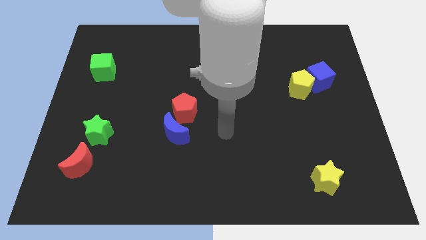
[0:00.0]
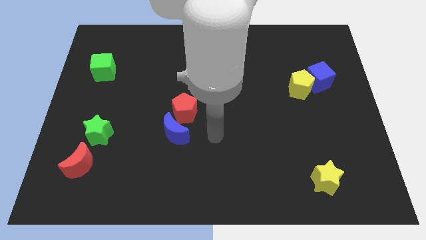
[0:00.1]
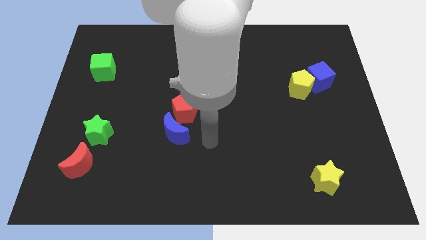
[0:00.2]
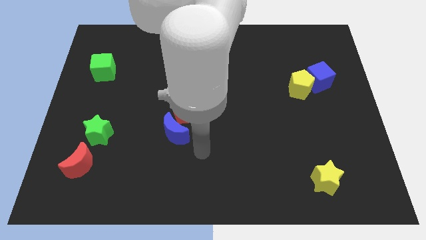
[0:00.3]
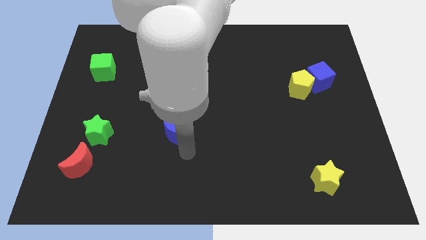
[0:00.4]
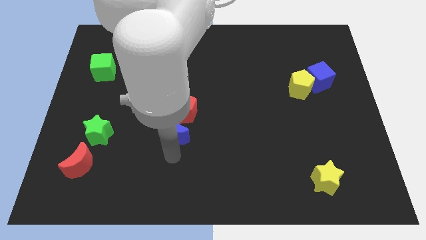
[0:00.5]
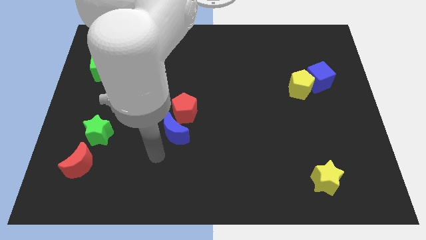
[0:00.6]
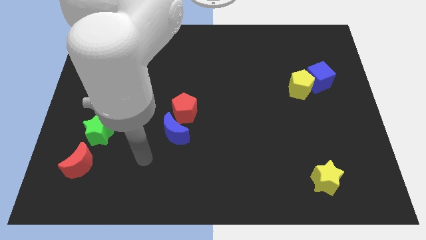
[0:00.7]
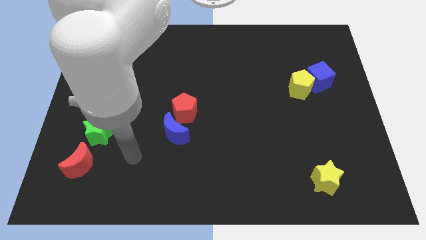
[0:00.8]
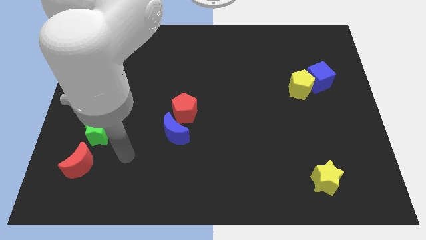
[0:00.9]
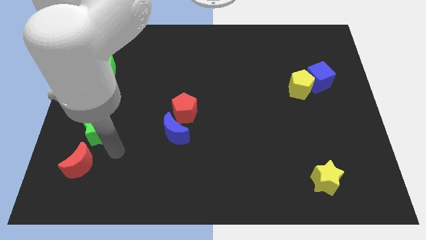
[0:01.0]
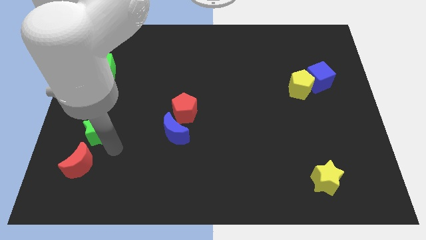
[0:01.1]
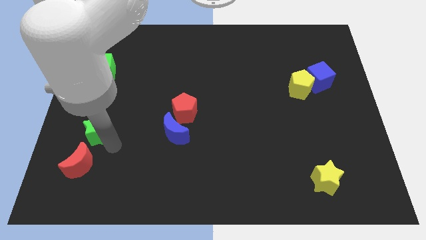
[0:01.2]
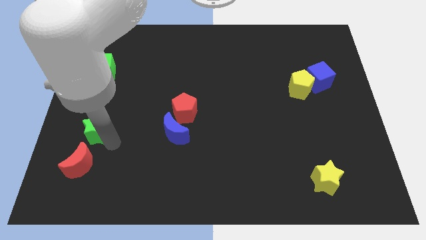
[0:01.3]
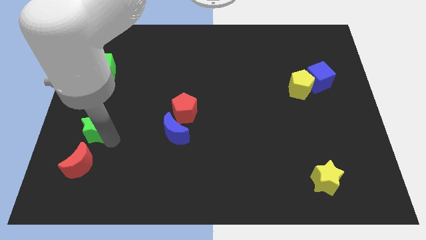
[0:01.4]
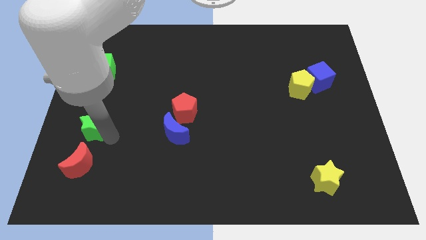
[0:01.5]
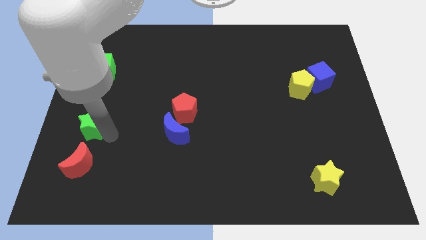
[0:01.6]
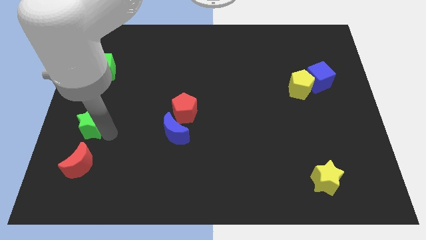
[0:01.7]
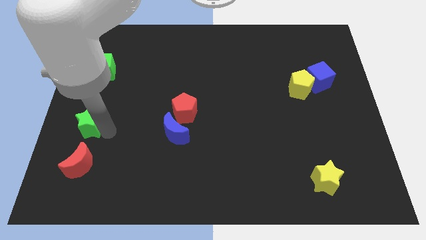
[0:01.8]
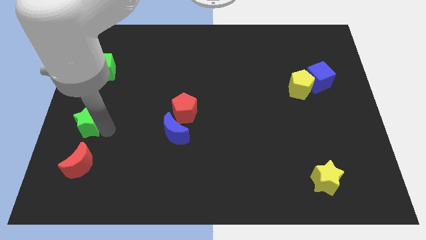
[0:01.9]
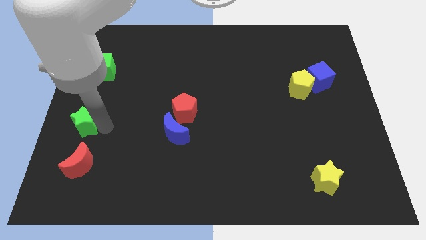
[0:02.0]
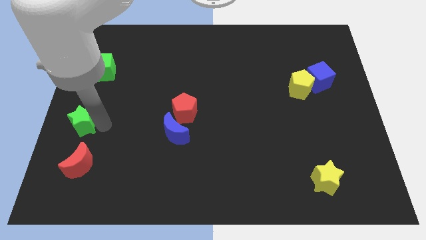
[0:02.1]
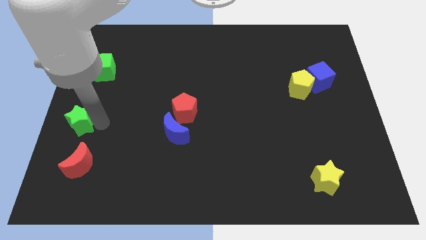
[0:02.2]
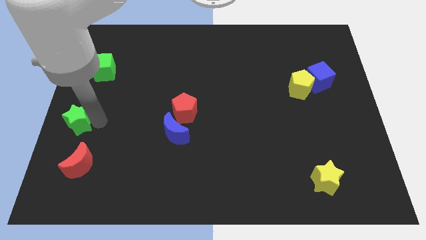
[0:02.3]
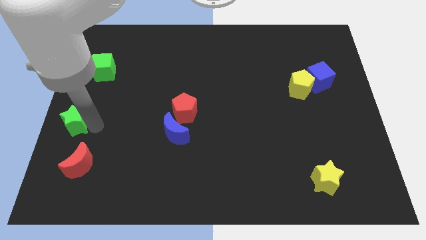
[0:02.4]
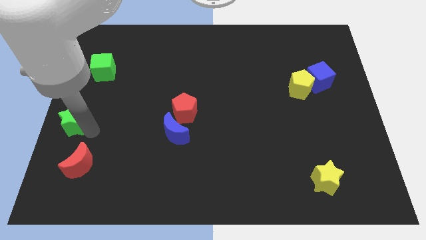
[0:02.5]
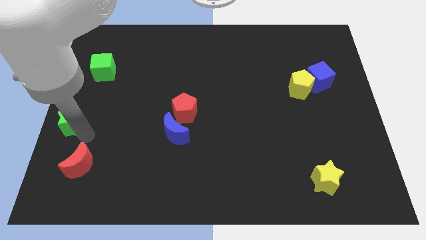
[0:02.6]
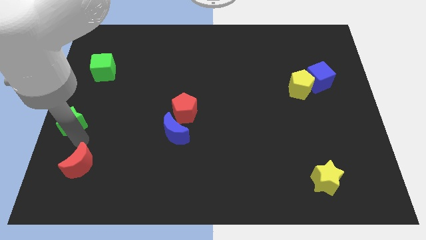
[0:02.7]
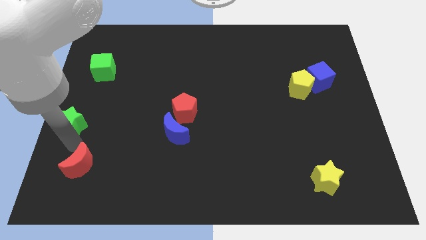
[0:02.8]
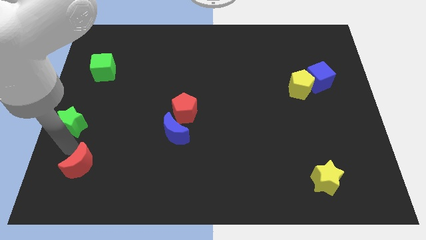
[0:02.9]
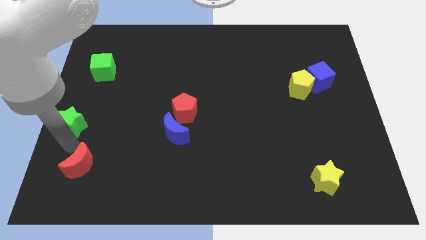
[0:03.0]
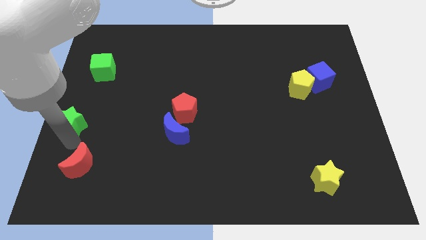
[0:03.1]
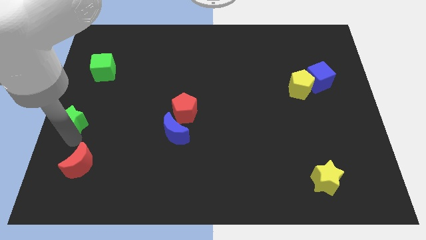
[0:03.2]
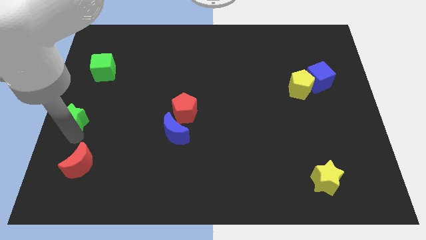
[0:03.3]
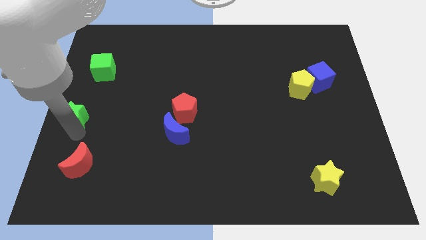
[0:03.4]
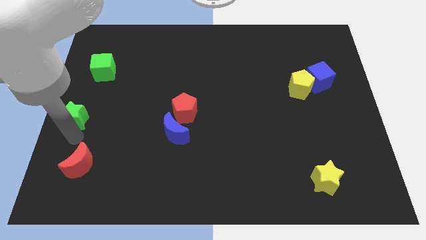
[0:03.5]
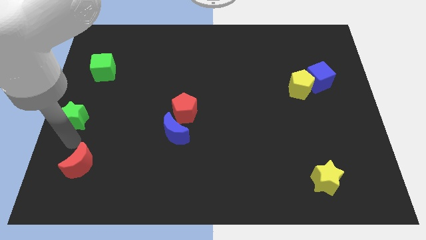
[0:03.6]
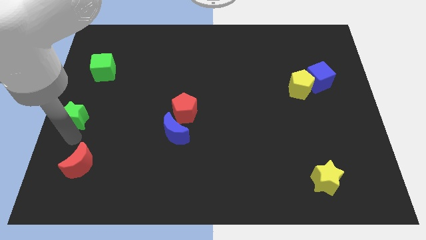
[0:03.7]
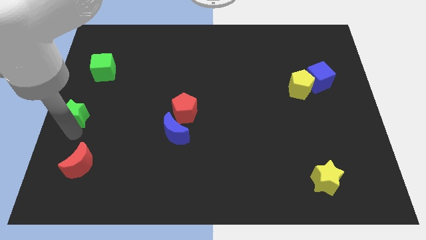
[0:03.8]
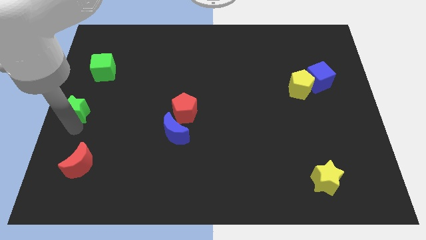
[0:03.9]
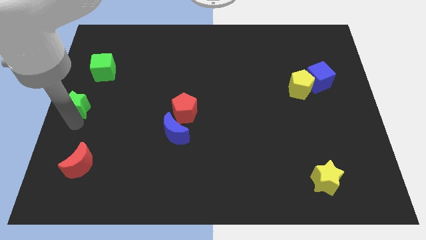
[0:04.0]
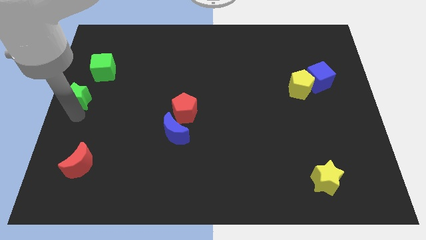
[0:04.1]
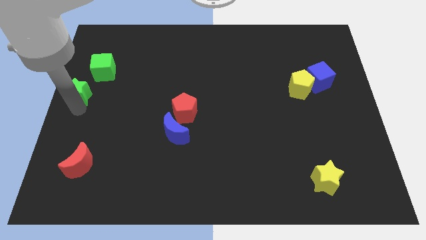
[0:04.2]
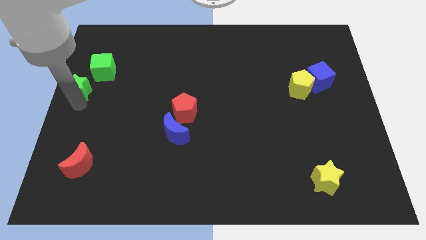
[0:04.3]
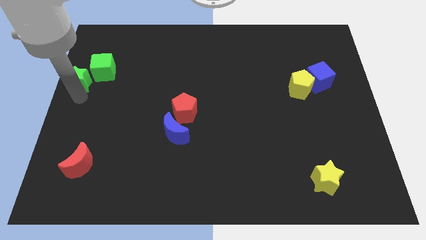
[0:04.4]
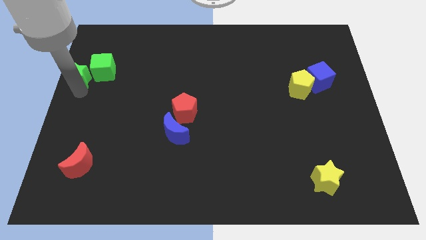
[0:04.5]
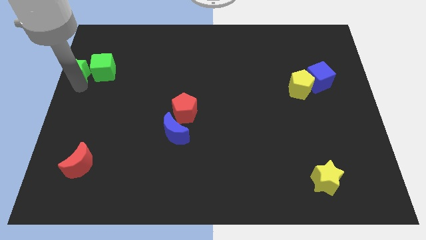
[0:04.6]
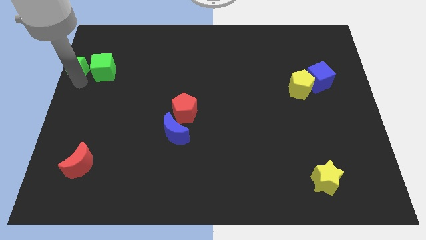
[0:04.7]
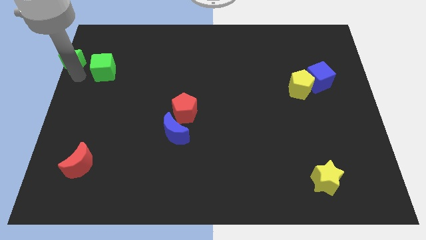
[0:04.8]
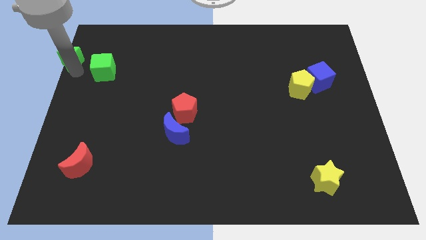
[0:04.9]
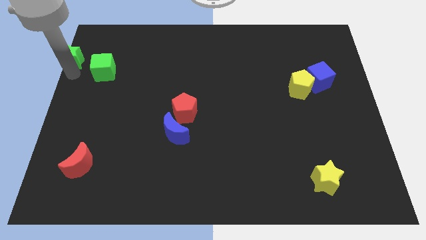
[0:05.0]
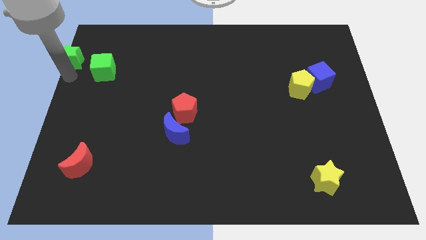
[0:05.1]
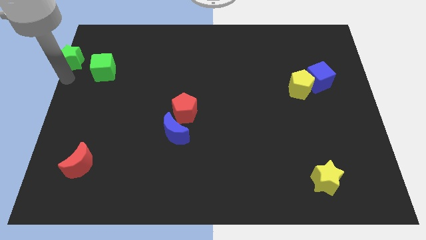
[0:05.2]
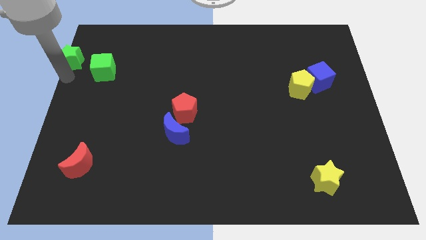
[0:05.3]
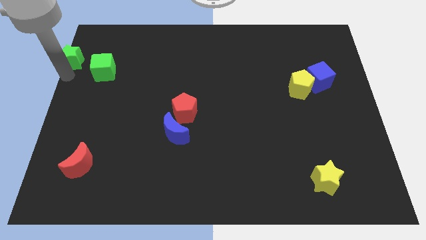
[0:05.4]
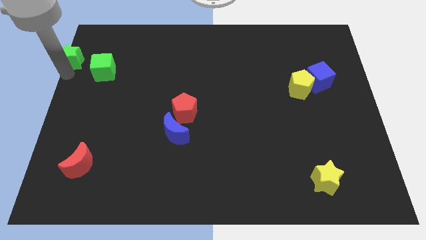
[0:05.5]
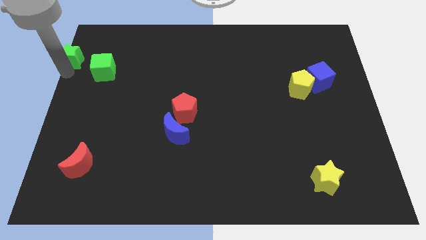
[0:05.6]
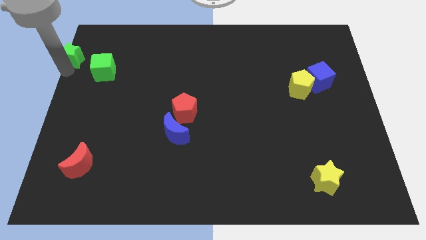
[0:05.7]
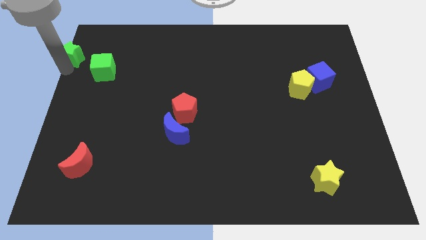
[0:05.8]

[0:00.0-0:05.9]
put the green star to the top left
